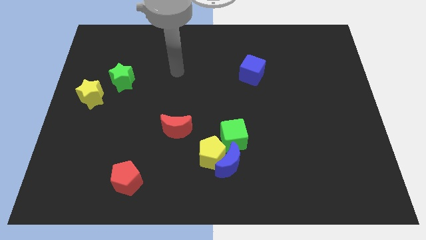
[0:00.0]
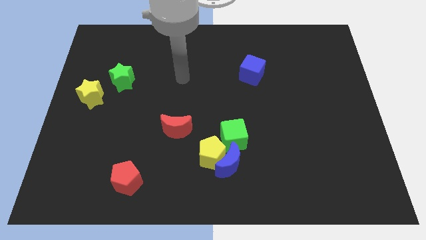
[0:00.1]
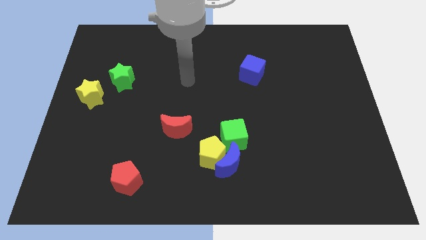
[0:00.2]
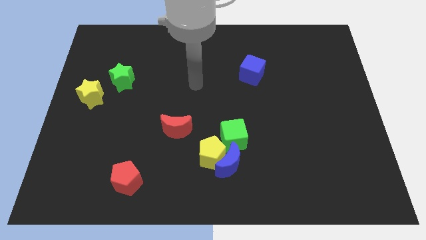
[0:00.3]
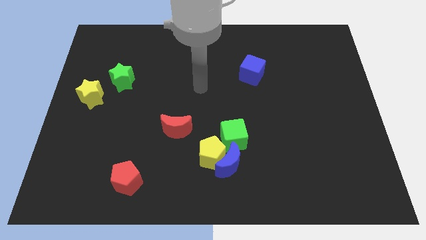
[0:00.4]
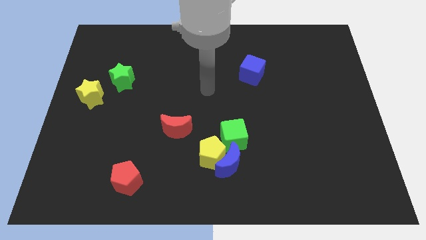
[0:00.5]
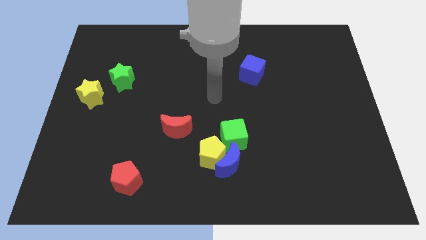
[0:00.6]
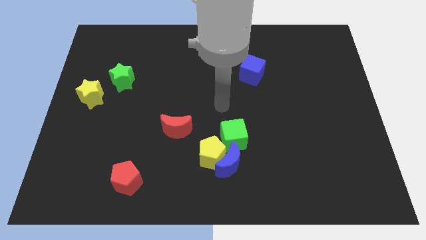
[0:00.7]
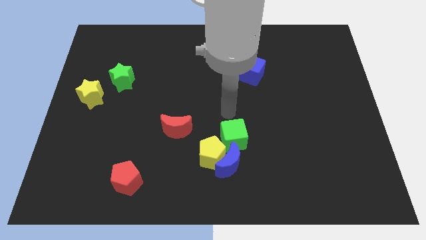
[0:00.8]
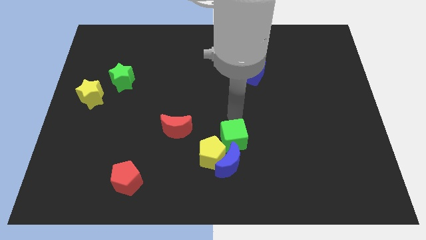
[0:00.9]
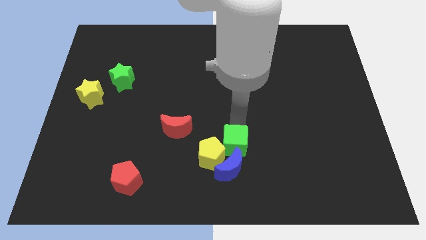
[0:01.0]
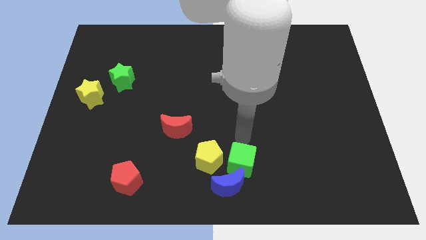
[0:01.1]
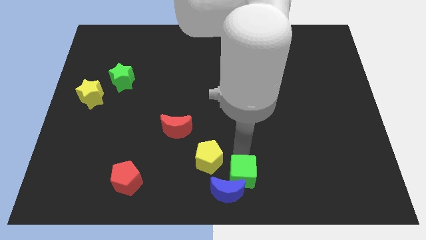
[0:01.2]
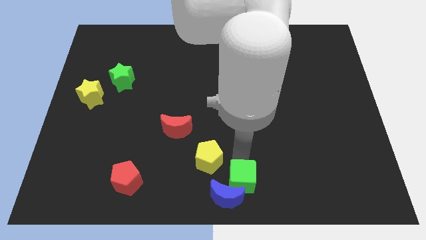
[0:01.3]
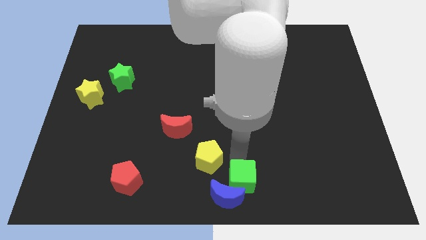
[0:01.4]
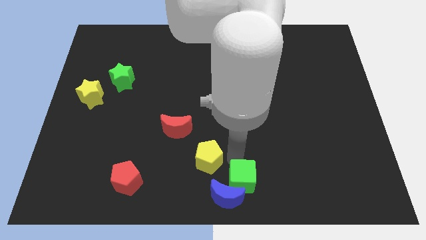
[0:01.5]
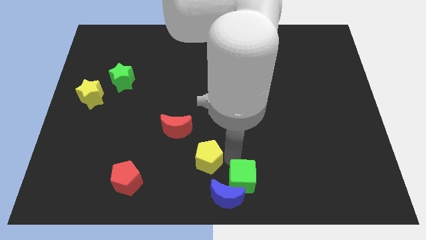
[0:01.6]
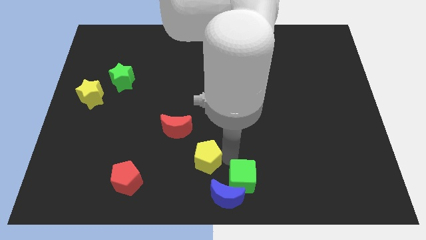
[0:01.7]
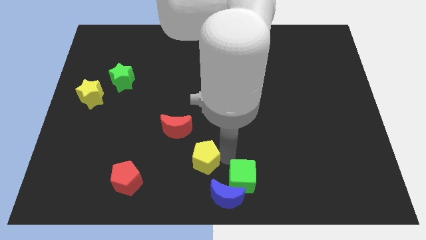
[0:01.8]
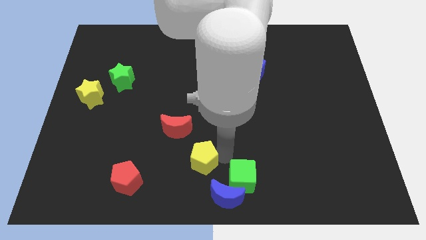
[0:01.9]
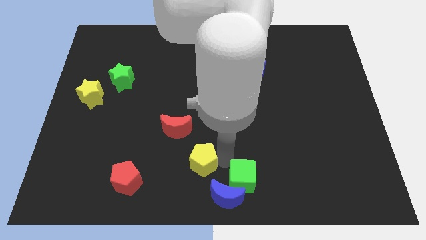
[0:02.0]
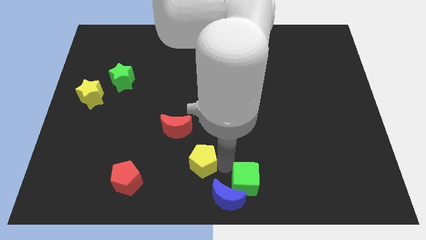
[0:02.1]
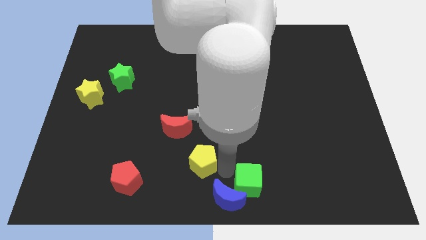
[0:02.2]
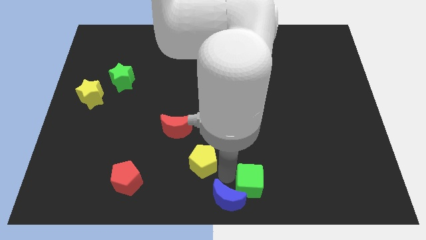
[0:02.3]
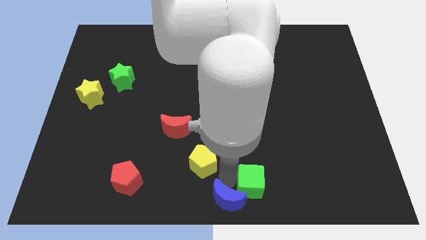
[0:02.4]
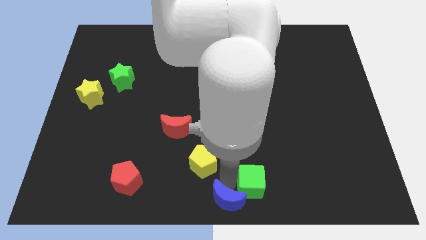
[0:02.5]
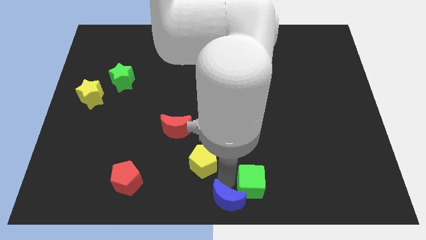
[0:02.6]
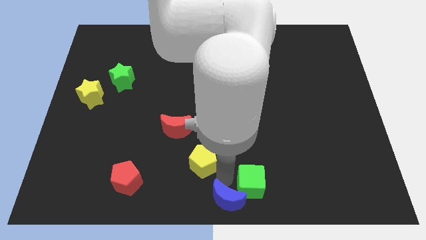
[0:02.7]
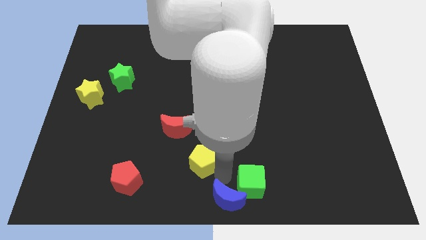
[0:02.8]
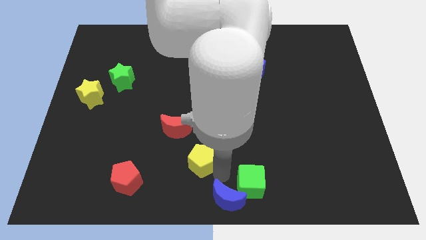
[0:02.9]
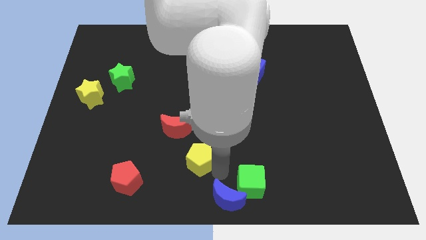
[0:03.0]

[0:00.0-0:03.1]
separate the yellow pentagon from the blue moon and green cube

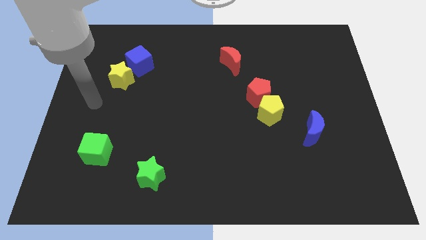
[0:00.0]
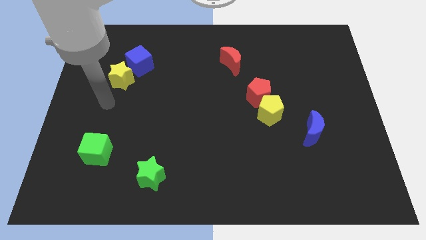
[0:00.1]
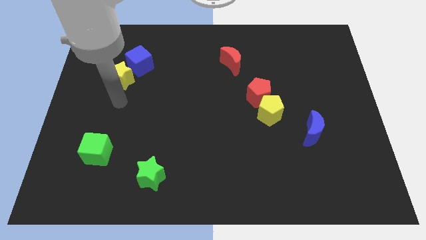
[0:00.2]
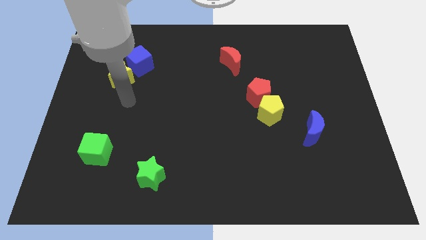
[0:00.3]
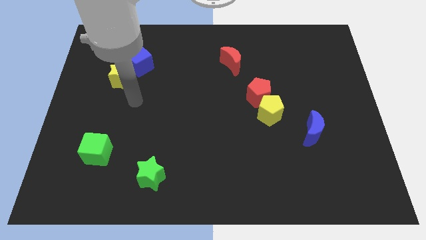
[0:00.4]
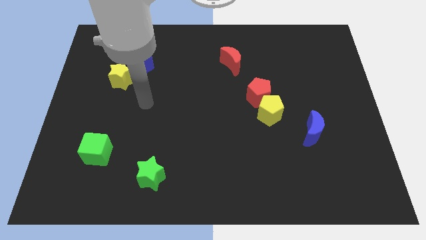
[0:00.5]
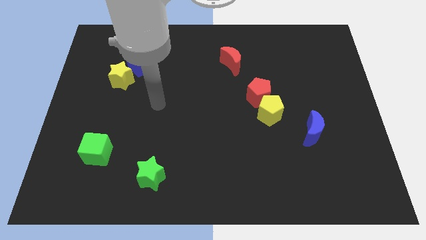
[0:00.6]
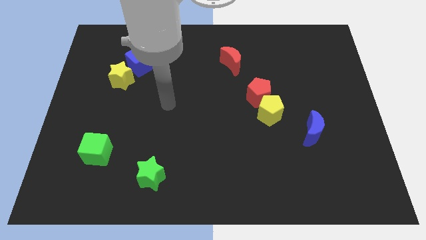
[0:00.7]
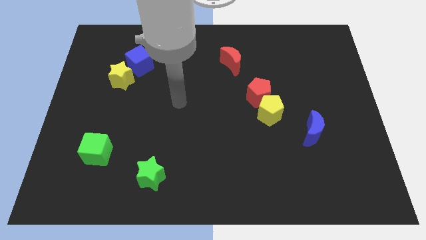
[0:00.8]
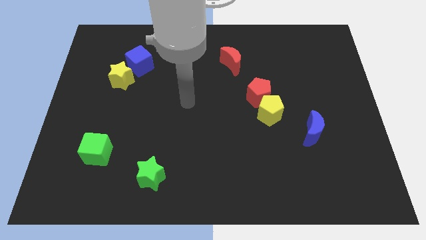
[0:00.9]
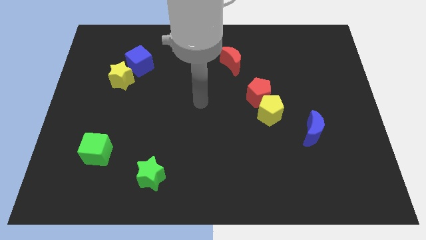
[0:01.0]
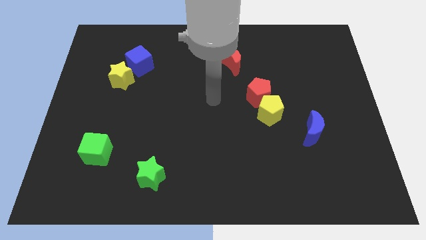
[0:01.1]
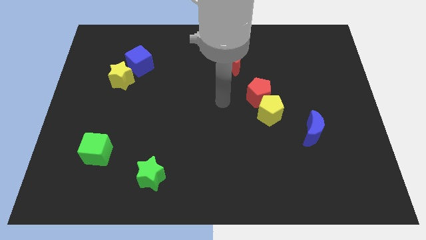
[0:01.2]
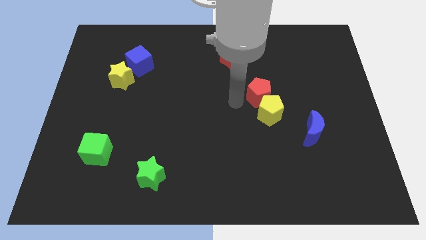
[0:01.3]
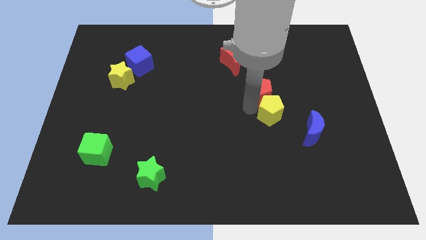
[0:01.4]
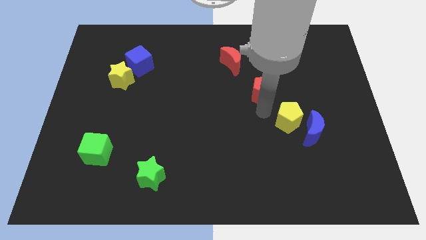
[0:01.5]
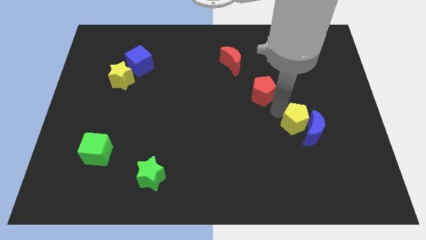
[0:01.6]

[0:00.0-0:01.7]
move the red pentagon away from the yellow pentagon

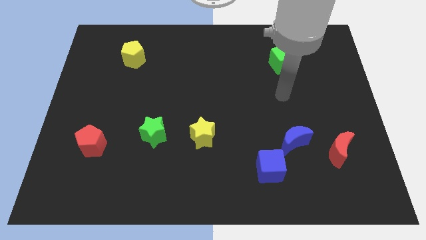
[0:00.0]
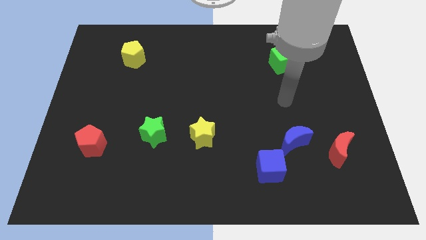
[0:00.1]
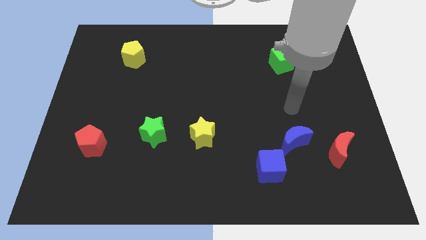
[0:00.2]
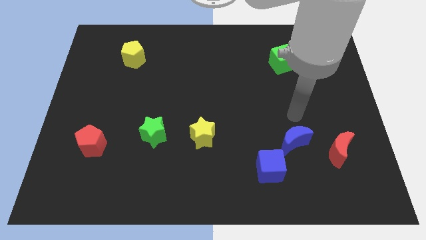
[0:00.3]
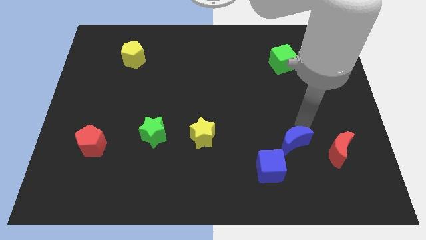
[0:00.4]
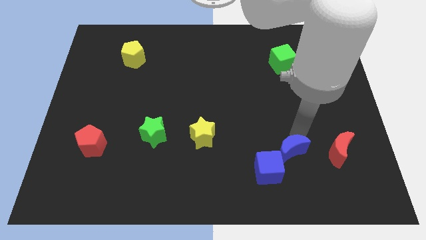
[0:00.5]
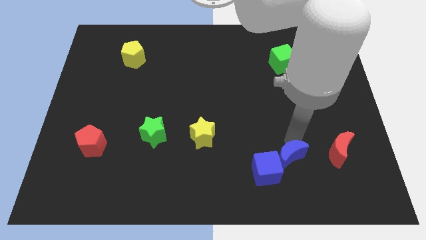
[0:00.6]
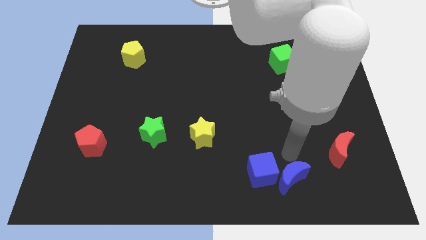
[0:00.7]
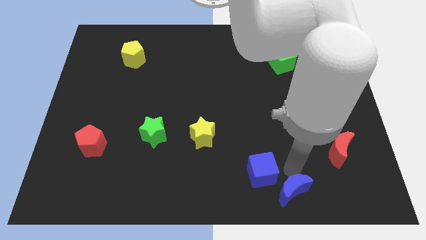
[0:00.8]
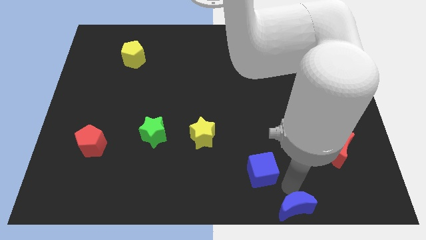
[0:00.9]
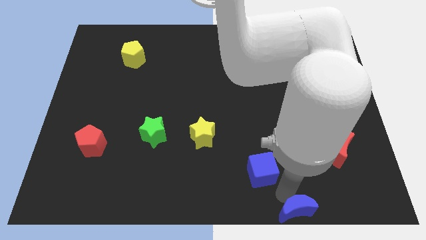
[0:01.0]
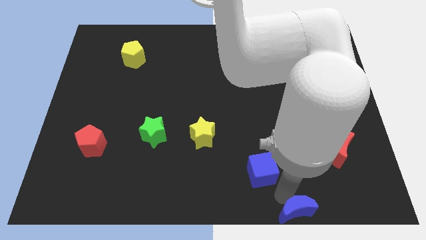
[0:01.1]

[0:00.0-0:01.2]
pull the blue cube apart from the blue moon

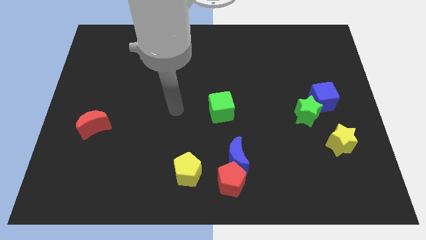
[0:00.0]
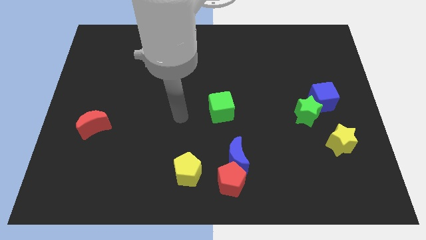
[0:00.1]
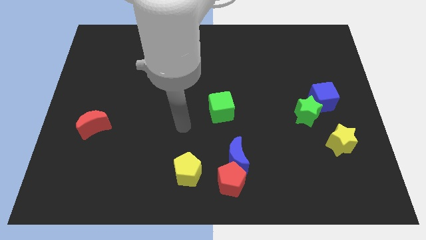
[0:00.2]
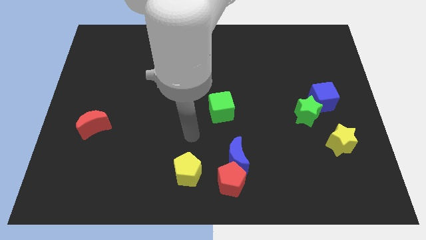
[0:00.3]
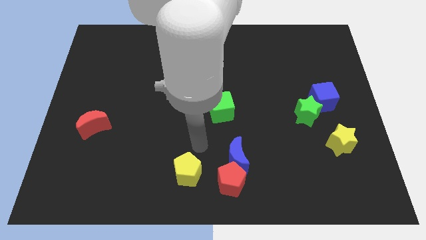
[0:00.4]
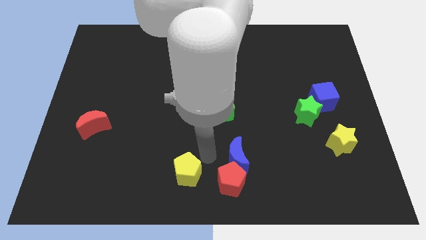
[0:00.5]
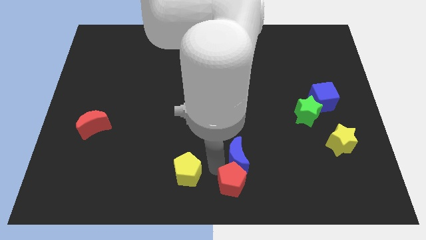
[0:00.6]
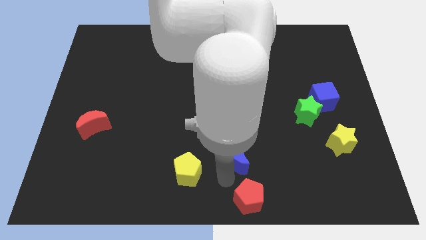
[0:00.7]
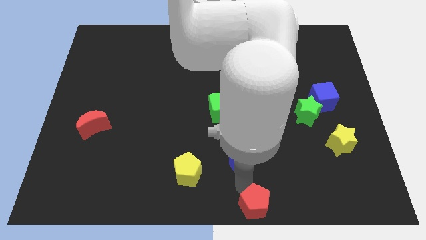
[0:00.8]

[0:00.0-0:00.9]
separate the blue moon from the red pentagon

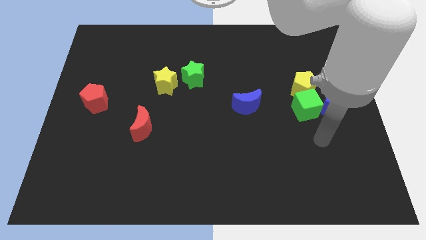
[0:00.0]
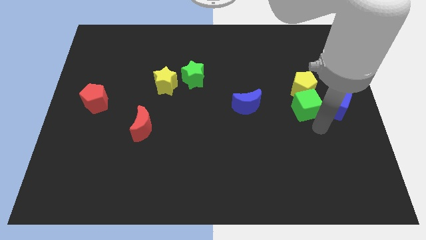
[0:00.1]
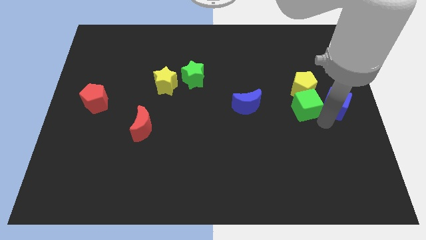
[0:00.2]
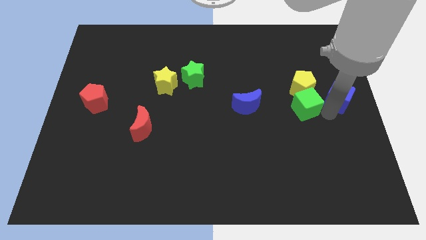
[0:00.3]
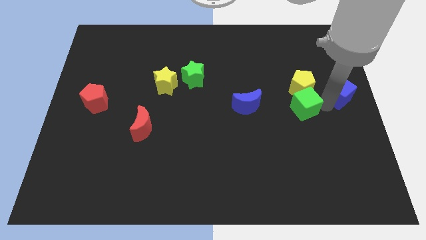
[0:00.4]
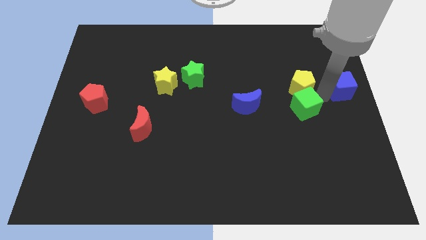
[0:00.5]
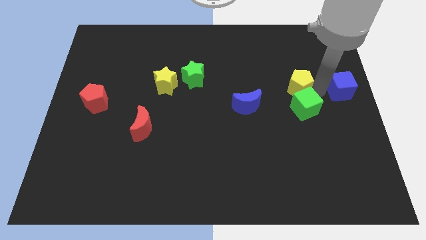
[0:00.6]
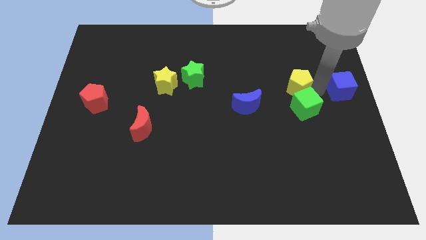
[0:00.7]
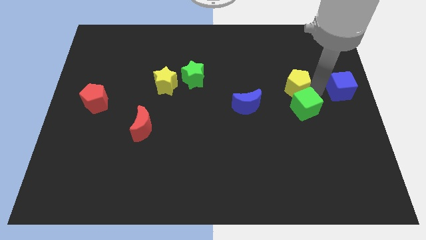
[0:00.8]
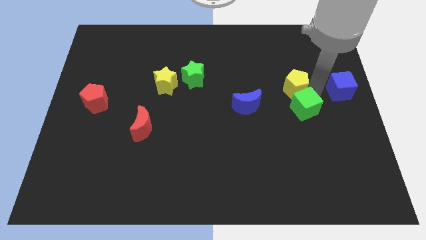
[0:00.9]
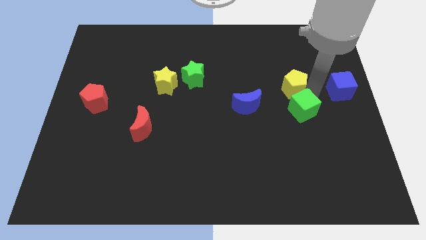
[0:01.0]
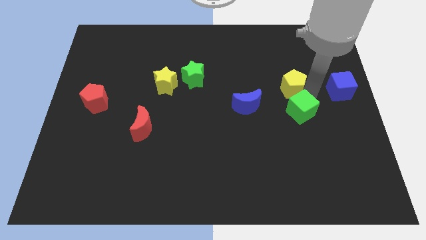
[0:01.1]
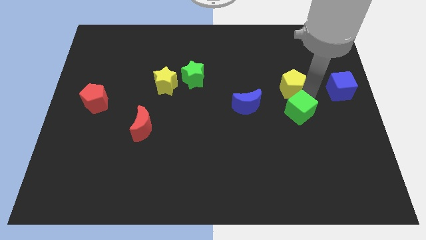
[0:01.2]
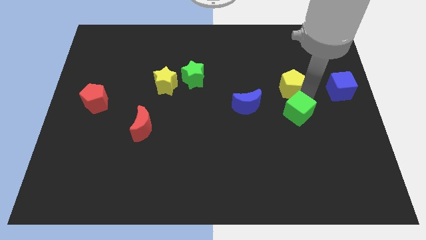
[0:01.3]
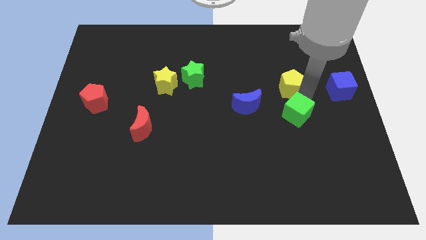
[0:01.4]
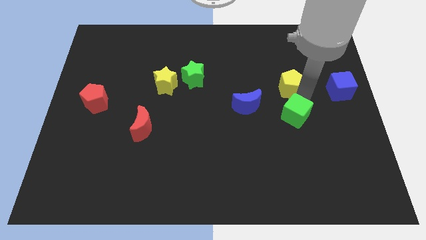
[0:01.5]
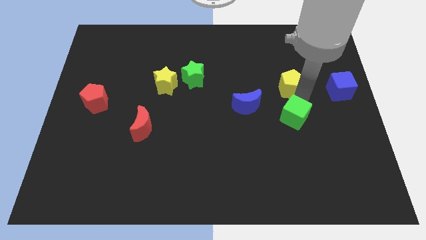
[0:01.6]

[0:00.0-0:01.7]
separate the green cube from the yellow pentagon and blue cube

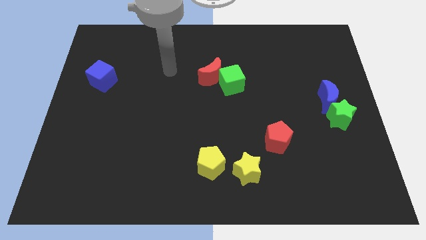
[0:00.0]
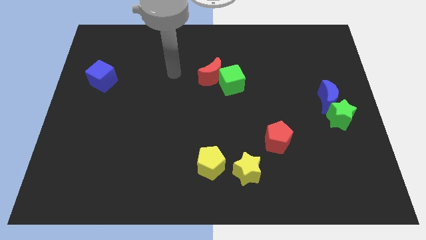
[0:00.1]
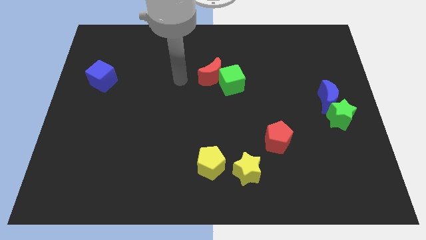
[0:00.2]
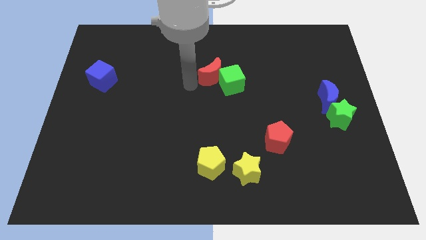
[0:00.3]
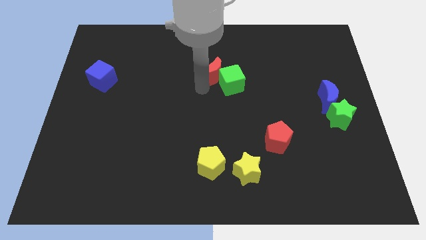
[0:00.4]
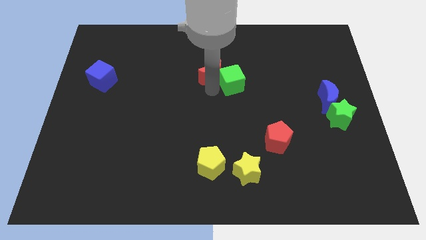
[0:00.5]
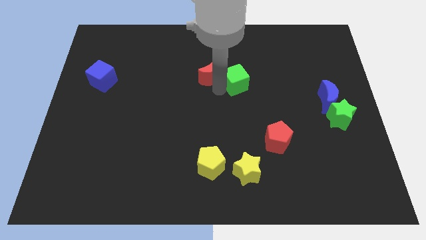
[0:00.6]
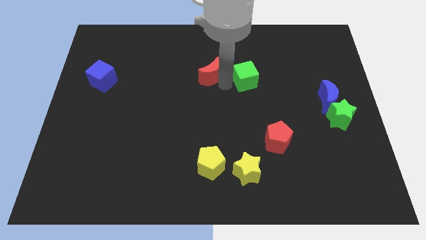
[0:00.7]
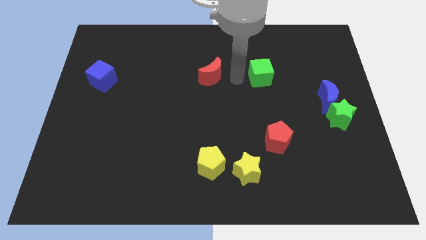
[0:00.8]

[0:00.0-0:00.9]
move the red moon away from the green cube
